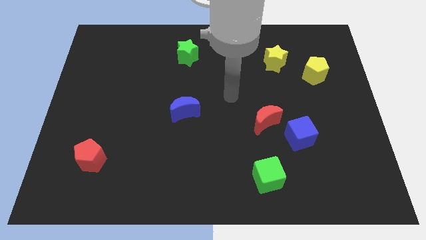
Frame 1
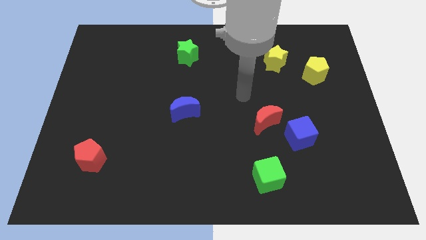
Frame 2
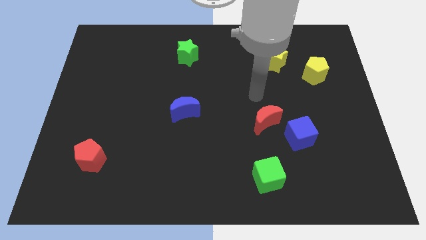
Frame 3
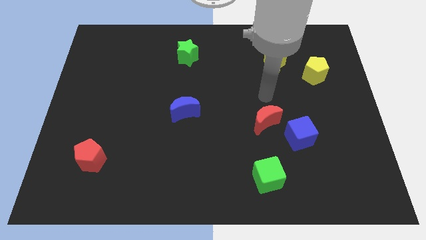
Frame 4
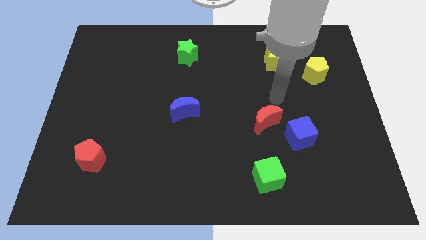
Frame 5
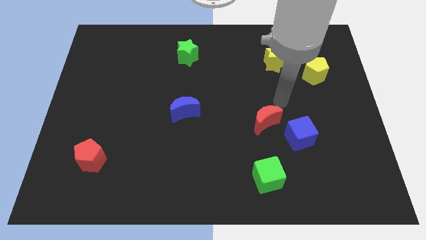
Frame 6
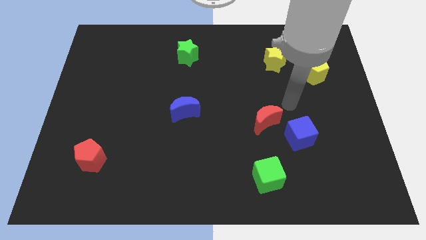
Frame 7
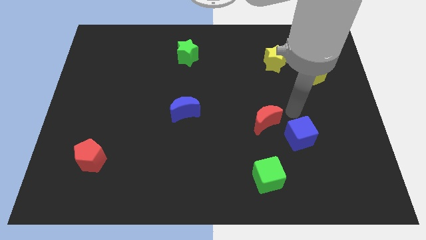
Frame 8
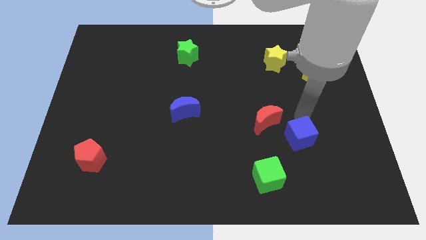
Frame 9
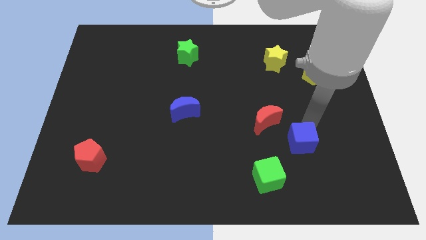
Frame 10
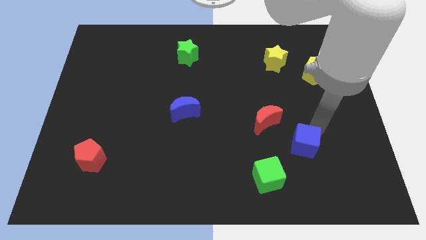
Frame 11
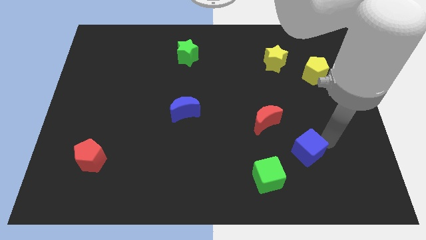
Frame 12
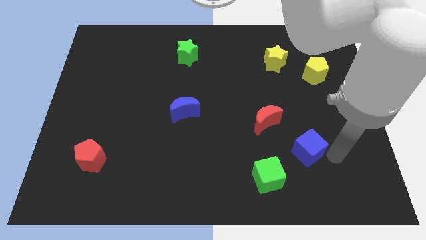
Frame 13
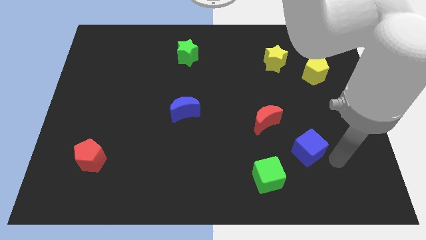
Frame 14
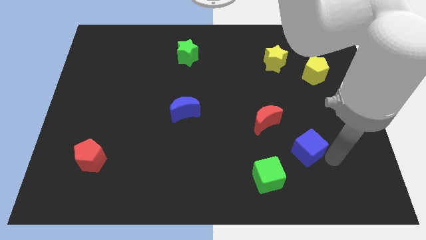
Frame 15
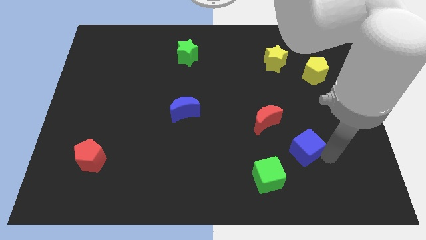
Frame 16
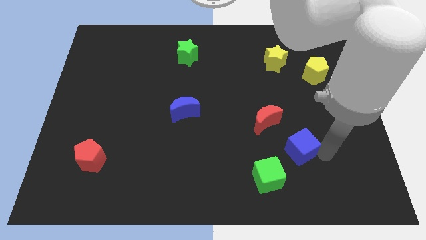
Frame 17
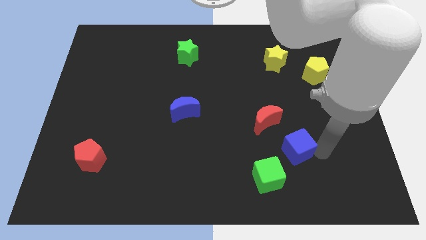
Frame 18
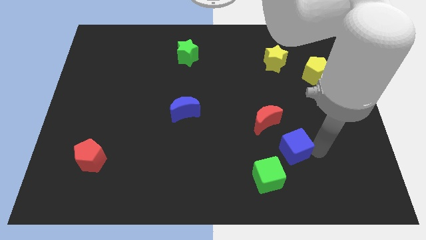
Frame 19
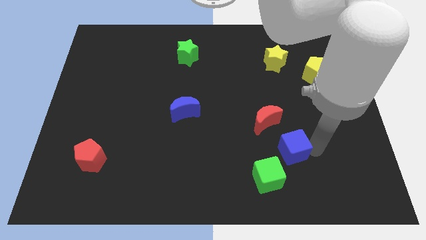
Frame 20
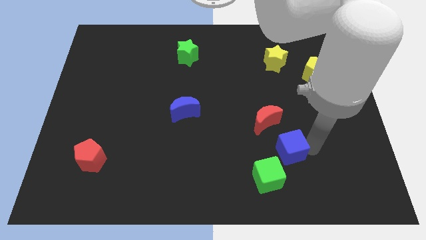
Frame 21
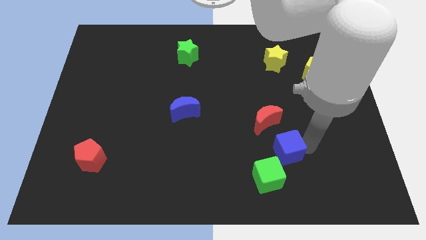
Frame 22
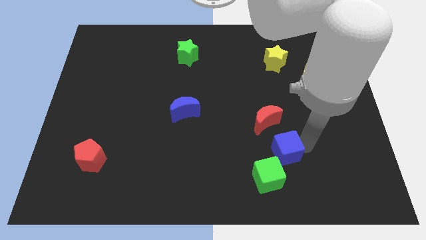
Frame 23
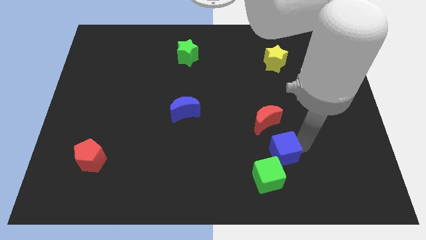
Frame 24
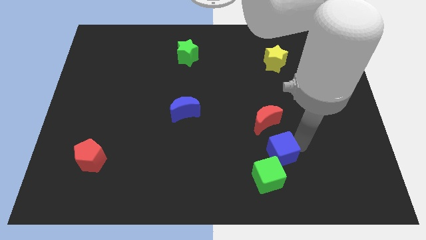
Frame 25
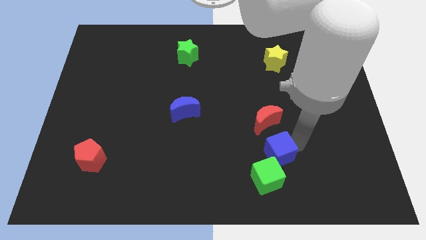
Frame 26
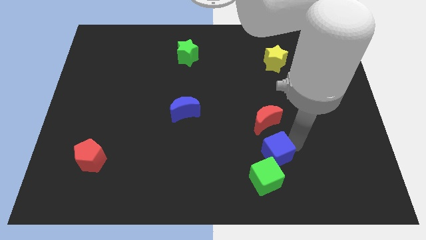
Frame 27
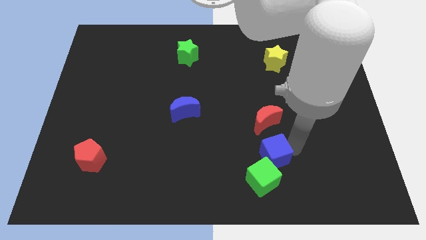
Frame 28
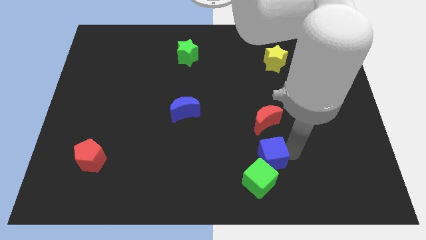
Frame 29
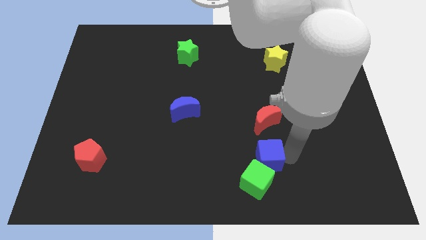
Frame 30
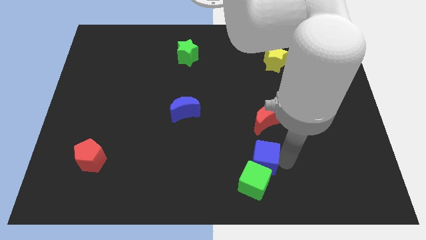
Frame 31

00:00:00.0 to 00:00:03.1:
slightly push the blue cube to the left

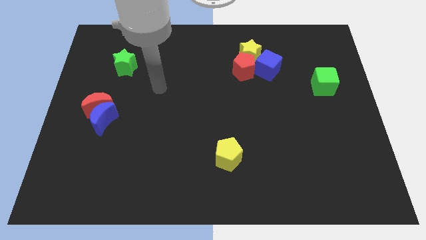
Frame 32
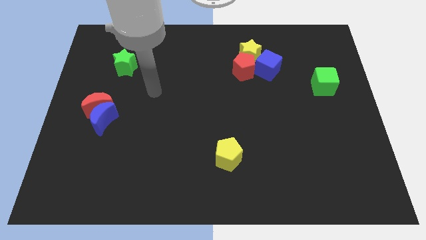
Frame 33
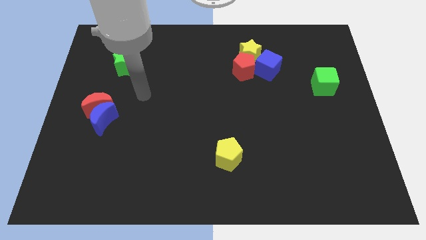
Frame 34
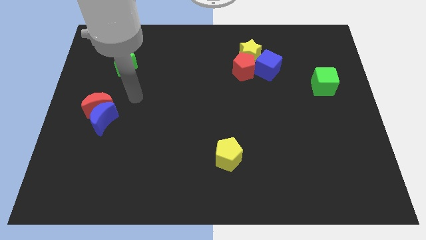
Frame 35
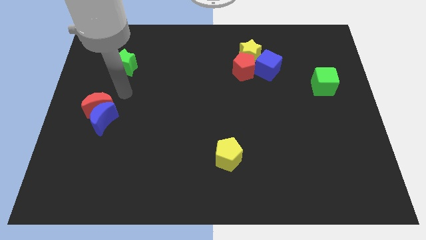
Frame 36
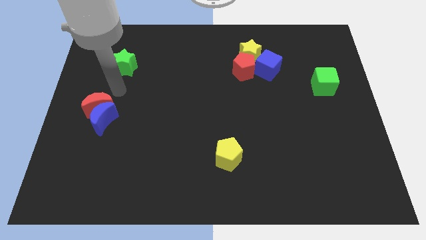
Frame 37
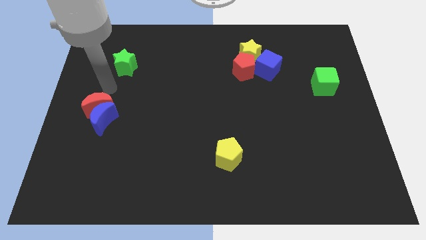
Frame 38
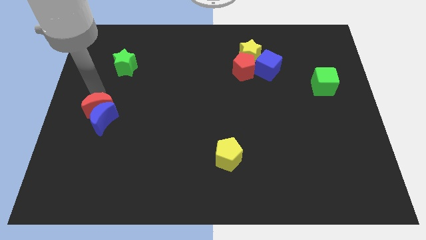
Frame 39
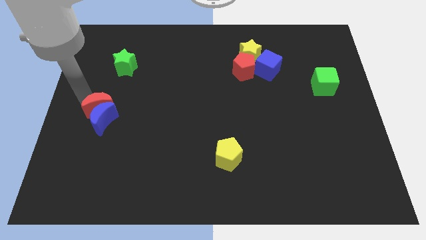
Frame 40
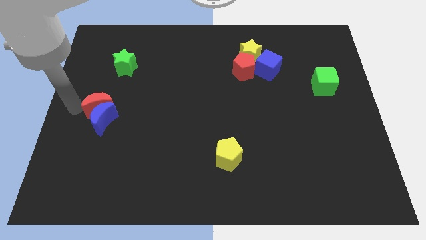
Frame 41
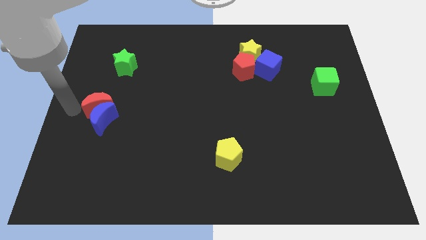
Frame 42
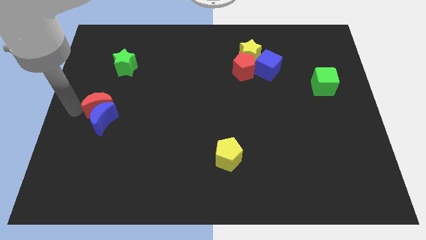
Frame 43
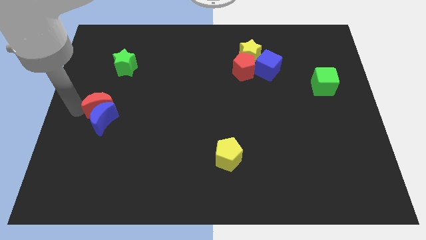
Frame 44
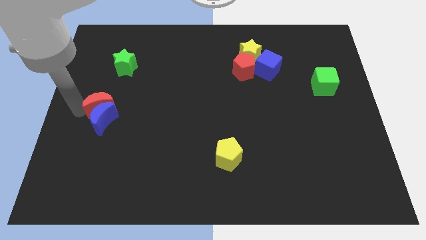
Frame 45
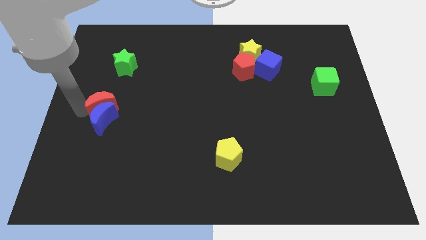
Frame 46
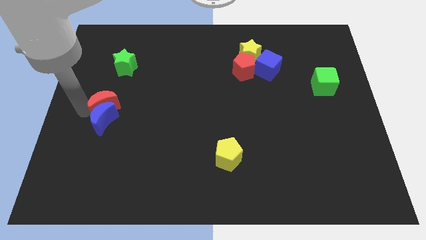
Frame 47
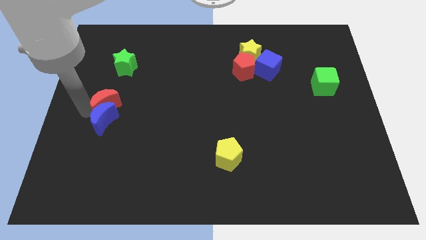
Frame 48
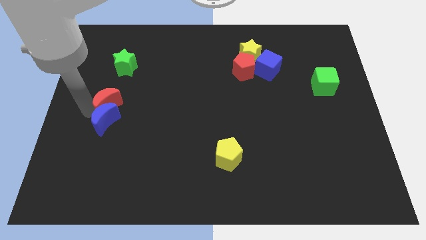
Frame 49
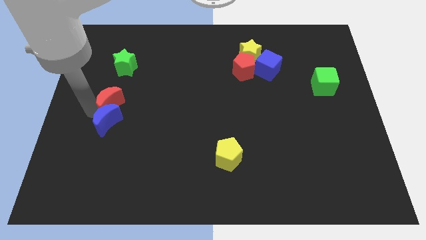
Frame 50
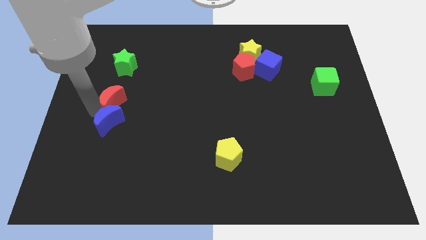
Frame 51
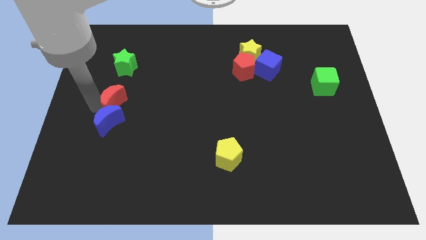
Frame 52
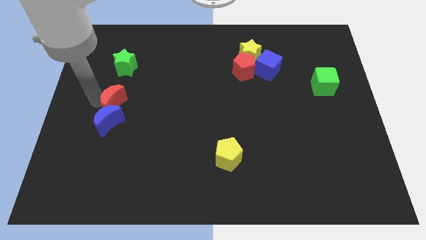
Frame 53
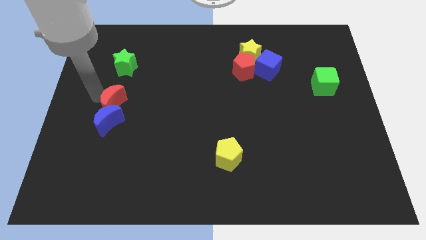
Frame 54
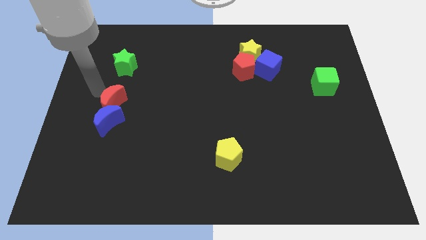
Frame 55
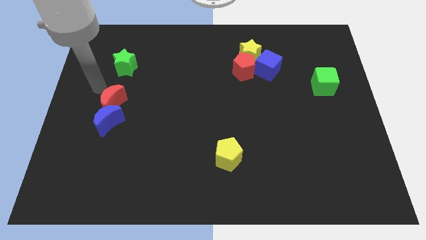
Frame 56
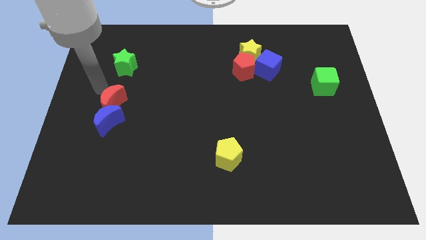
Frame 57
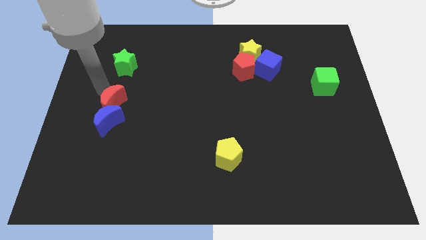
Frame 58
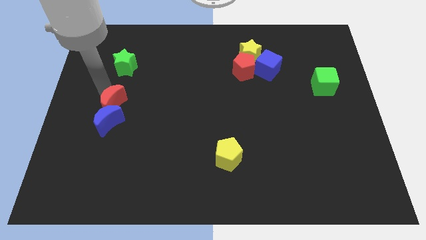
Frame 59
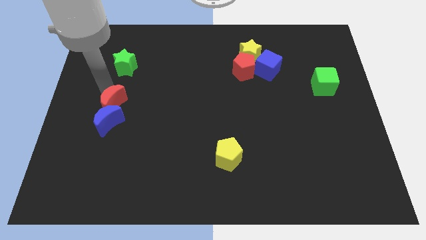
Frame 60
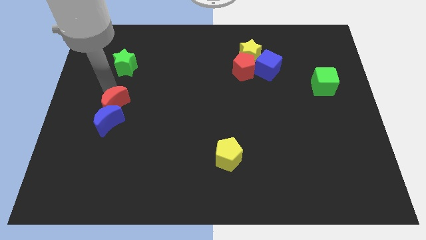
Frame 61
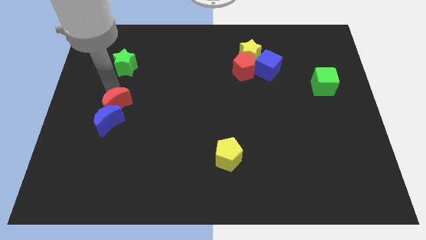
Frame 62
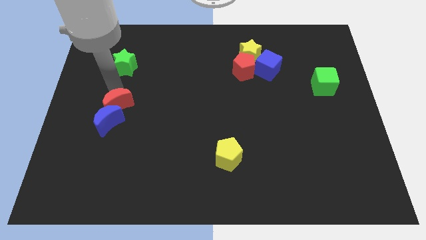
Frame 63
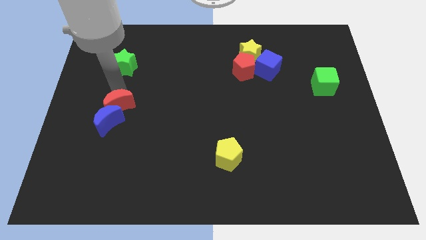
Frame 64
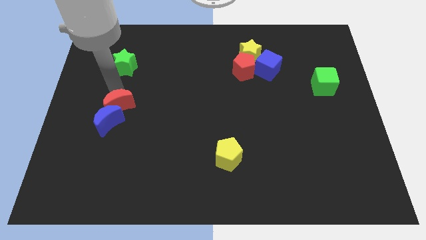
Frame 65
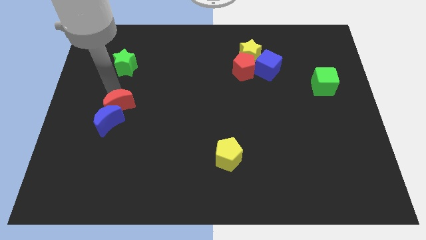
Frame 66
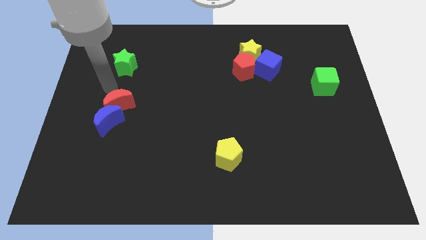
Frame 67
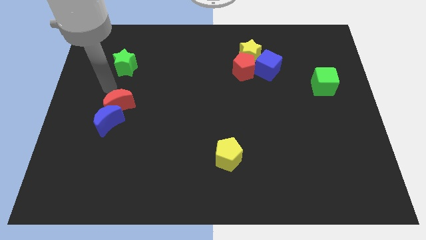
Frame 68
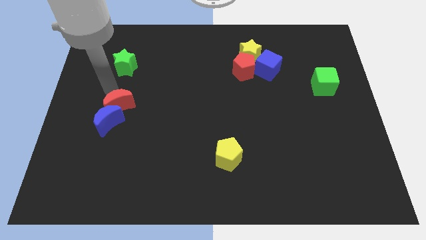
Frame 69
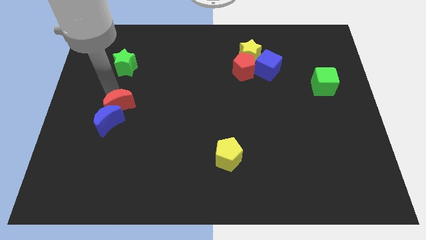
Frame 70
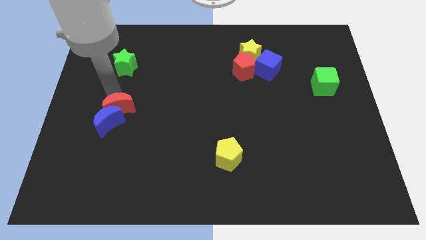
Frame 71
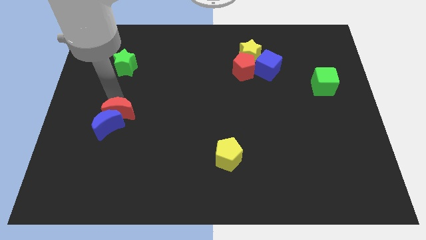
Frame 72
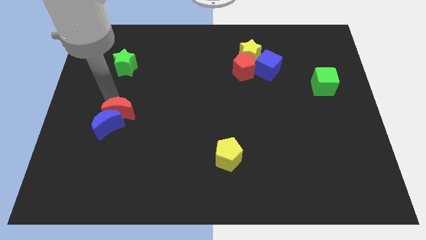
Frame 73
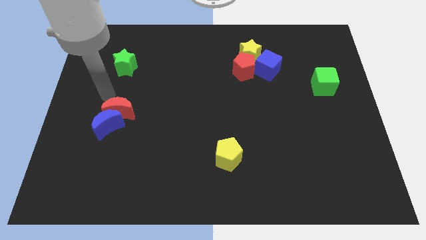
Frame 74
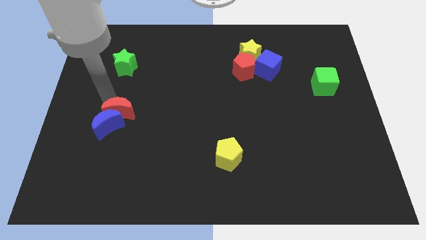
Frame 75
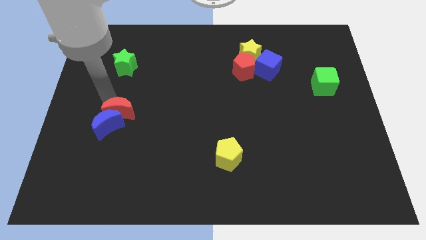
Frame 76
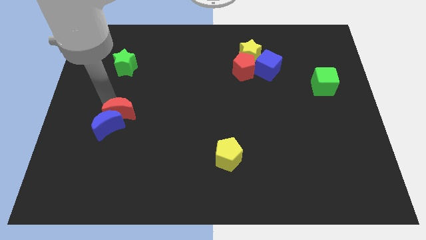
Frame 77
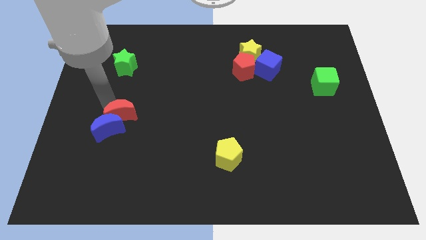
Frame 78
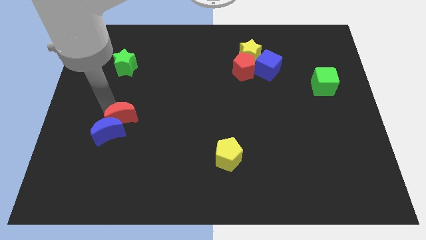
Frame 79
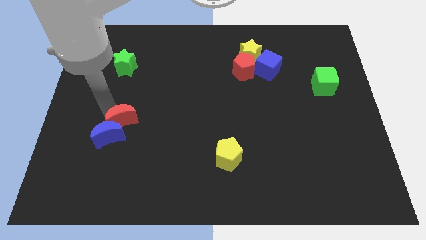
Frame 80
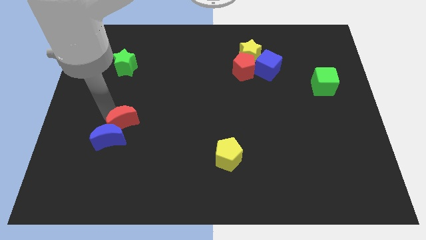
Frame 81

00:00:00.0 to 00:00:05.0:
move the red moon a little bit down and right
